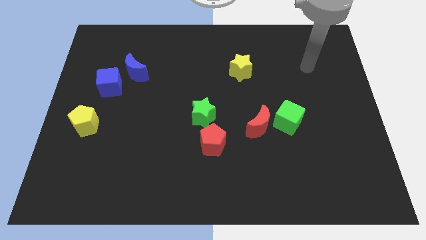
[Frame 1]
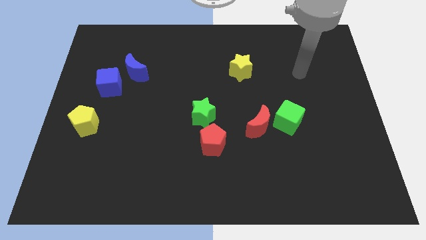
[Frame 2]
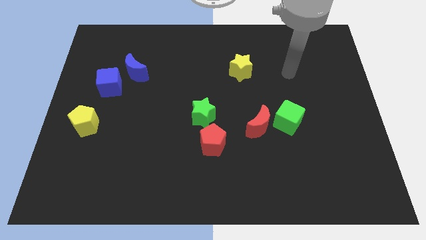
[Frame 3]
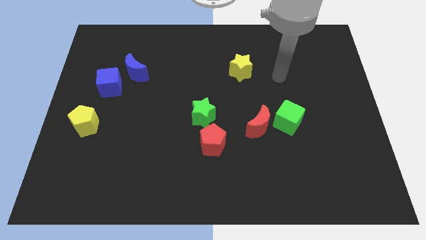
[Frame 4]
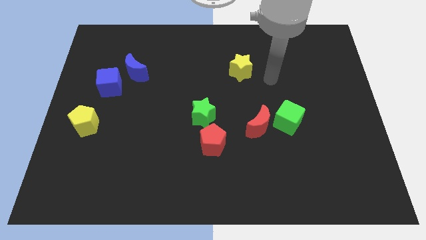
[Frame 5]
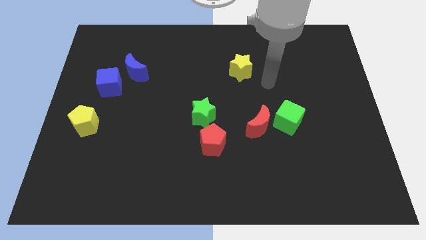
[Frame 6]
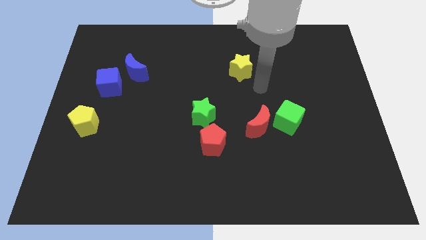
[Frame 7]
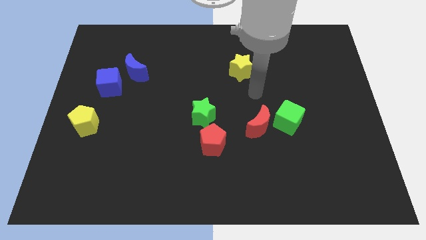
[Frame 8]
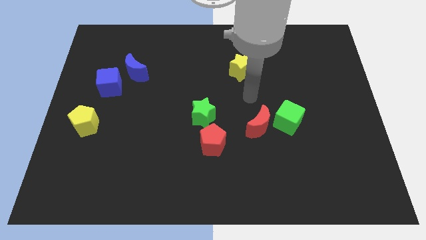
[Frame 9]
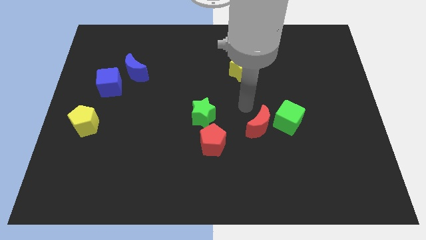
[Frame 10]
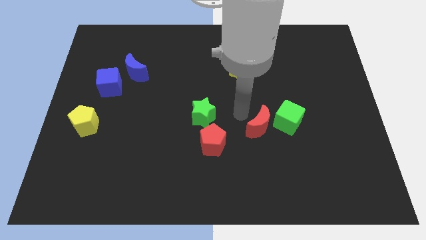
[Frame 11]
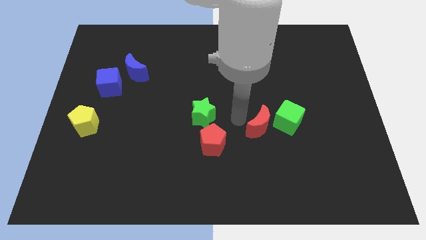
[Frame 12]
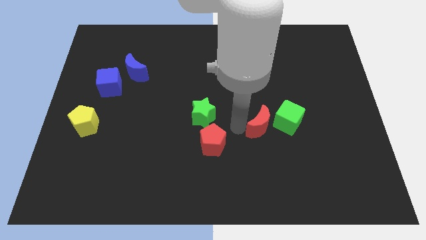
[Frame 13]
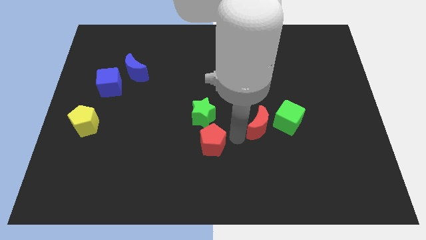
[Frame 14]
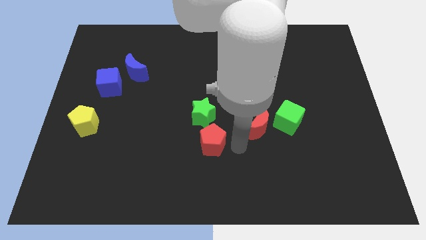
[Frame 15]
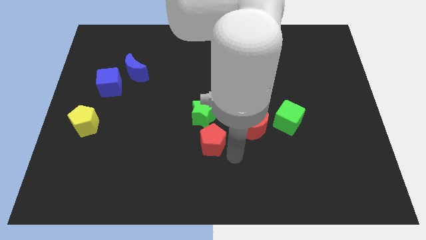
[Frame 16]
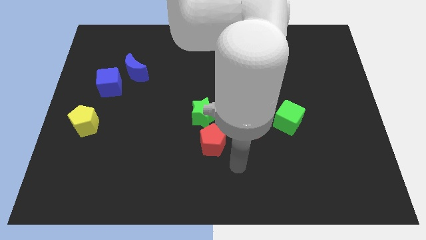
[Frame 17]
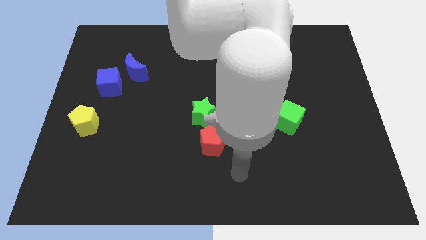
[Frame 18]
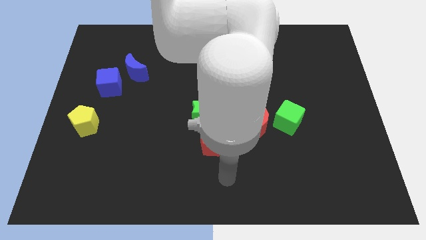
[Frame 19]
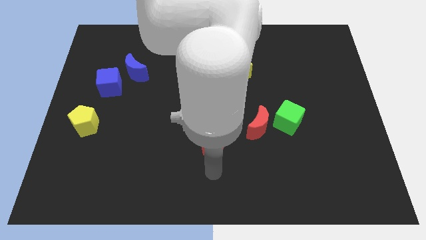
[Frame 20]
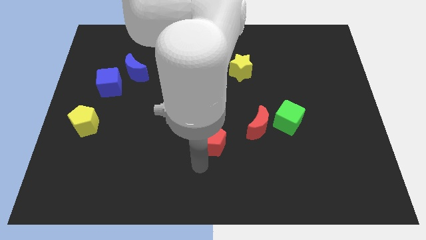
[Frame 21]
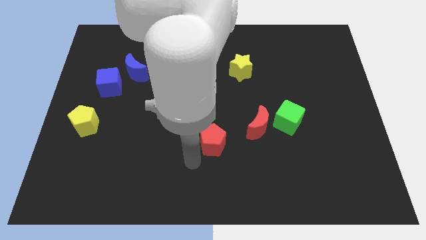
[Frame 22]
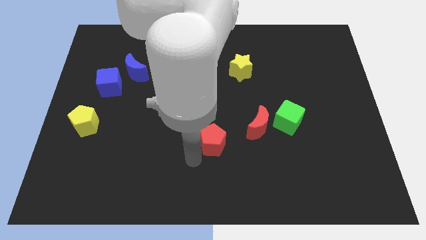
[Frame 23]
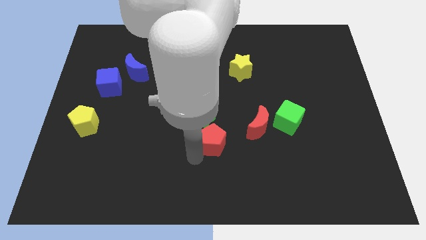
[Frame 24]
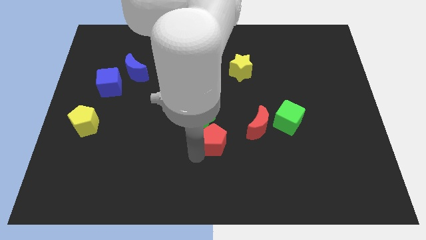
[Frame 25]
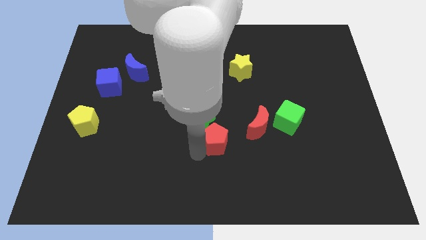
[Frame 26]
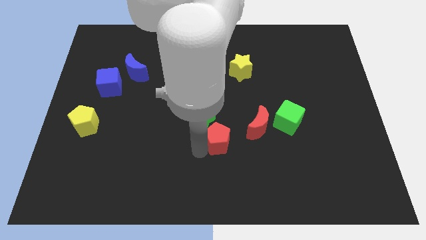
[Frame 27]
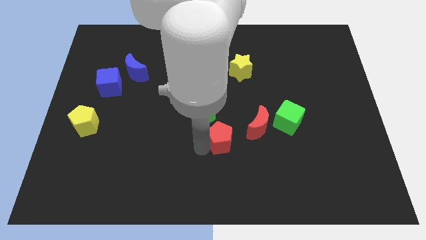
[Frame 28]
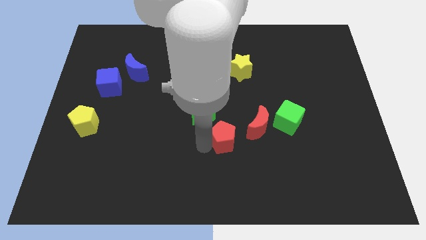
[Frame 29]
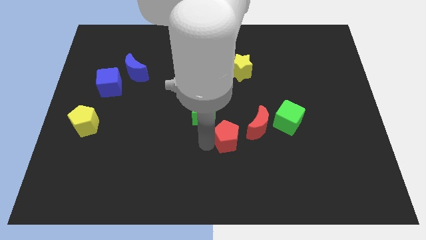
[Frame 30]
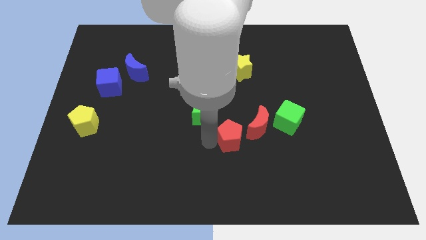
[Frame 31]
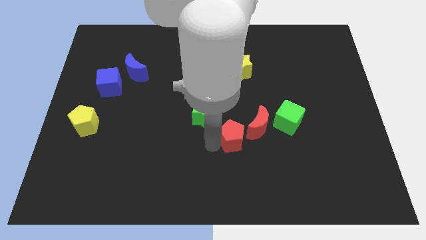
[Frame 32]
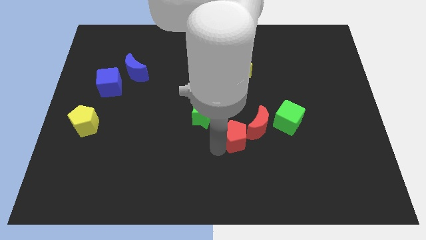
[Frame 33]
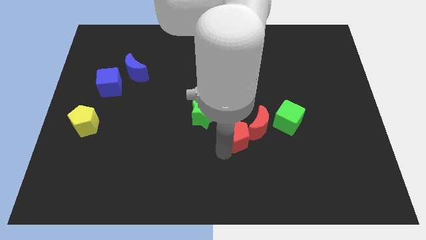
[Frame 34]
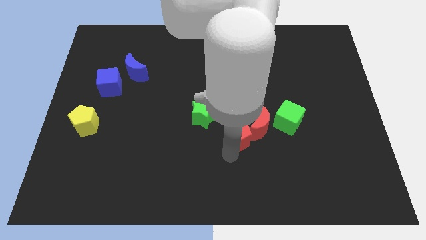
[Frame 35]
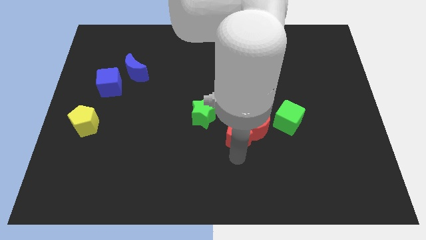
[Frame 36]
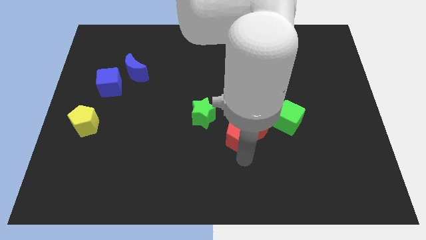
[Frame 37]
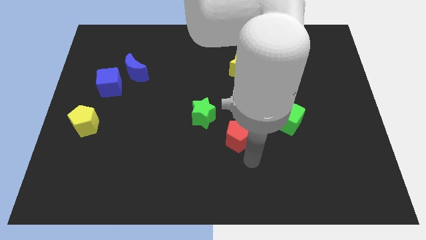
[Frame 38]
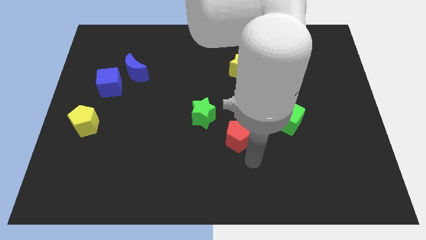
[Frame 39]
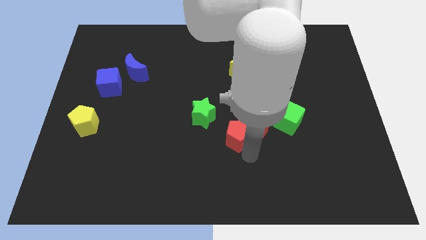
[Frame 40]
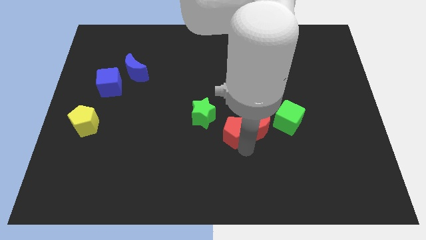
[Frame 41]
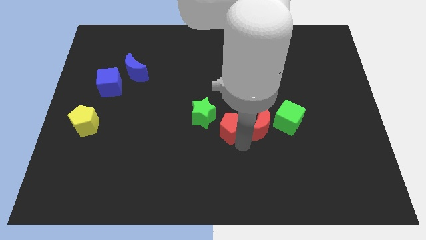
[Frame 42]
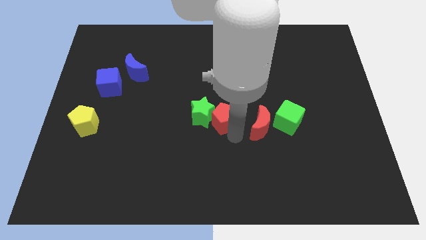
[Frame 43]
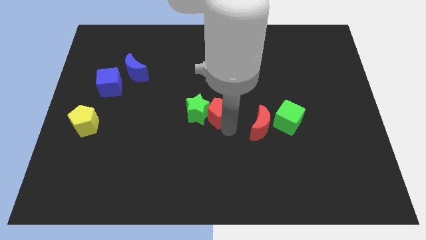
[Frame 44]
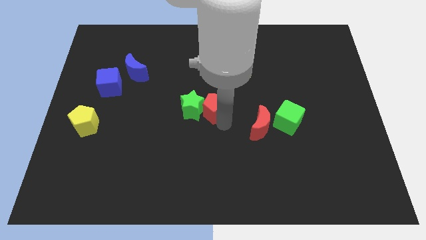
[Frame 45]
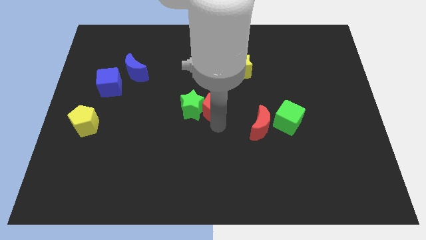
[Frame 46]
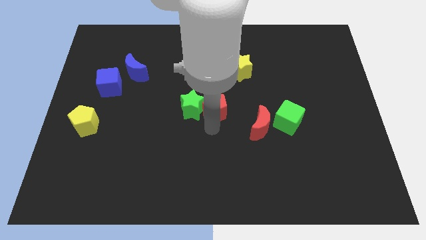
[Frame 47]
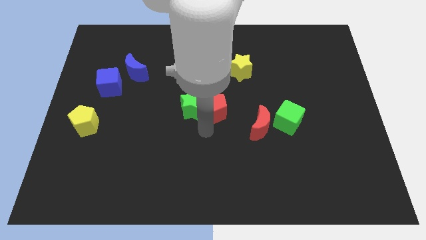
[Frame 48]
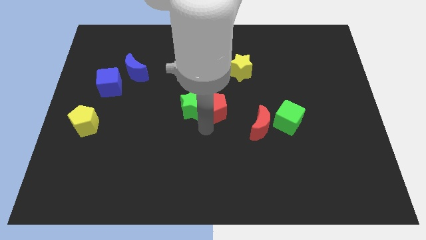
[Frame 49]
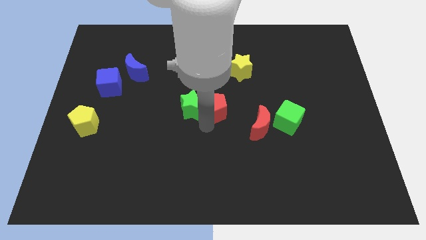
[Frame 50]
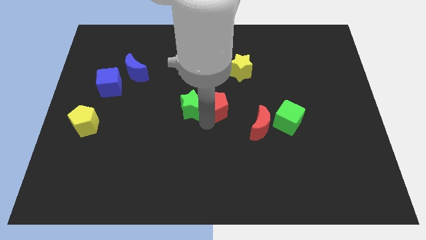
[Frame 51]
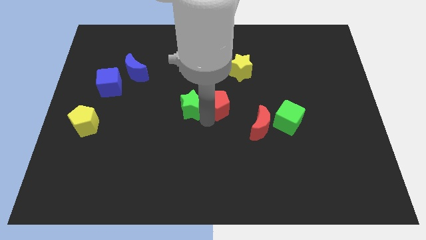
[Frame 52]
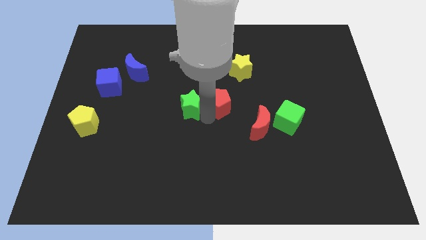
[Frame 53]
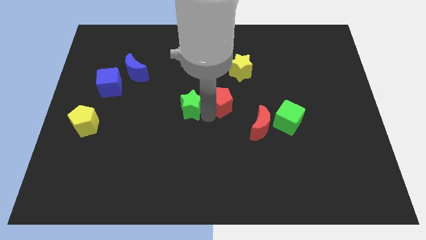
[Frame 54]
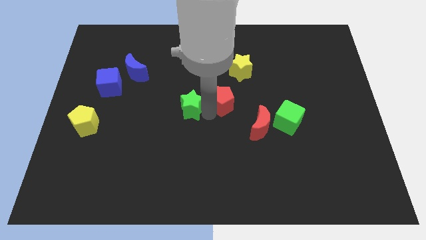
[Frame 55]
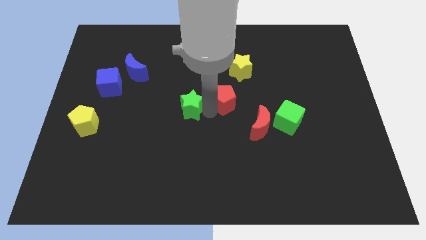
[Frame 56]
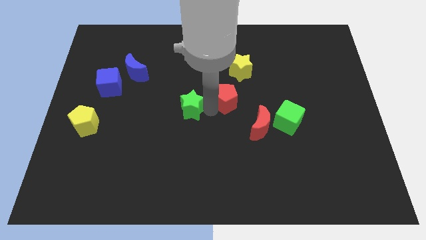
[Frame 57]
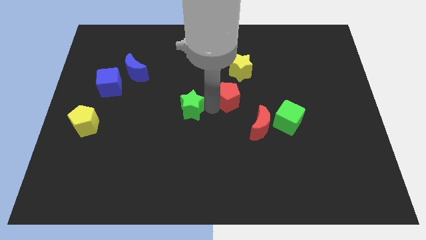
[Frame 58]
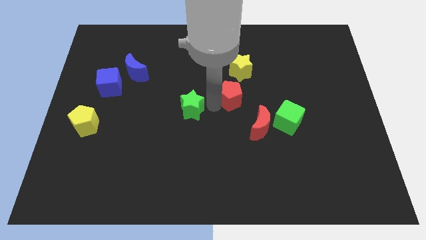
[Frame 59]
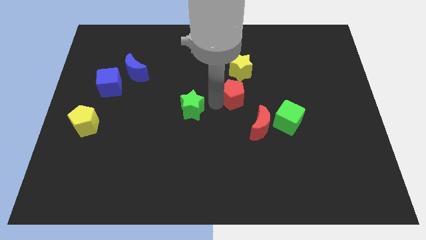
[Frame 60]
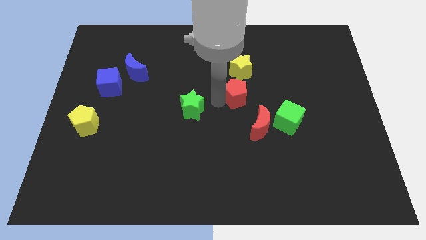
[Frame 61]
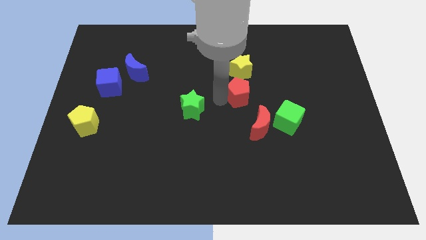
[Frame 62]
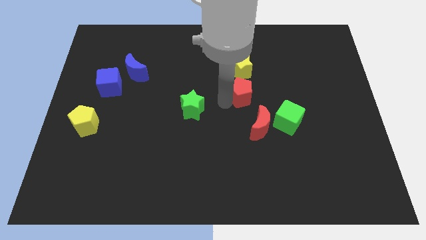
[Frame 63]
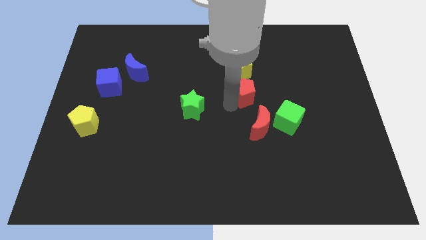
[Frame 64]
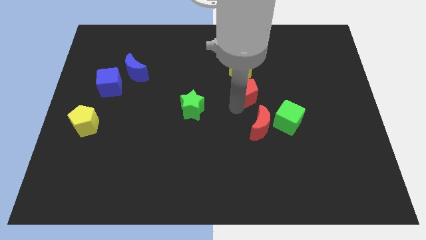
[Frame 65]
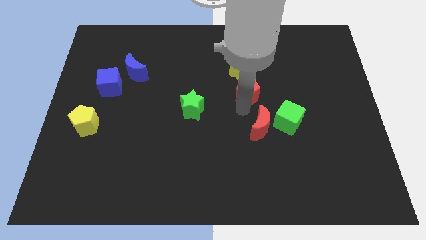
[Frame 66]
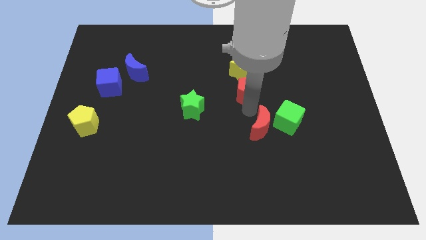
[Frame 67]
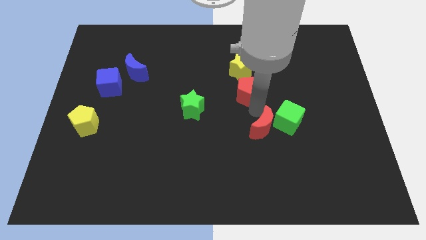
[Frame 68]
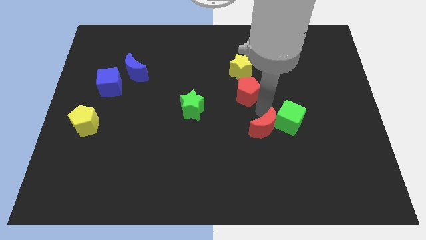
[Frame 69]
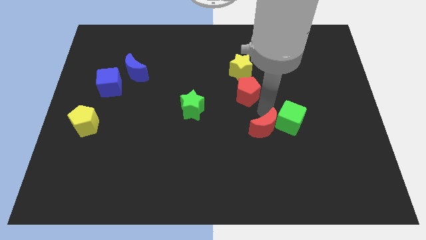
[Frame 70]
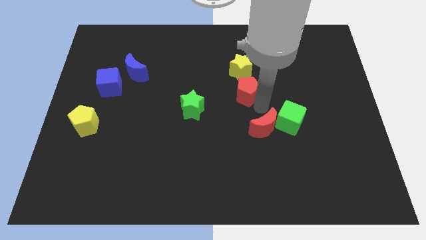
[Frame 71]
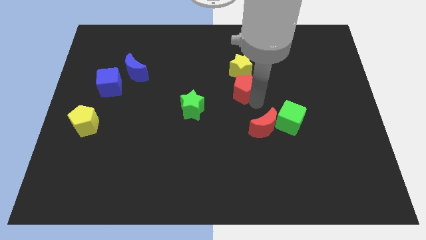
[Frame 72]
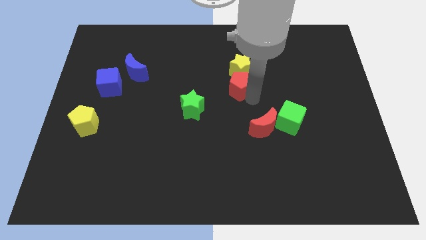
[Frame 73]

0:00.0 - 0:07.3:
put the red pentagon next to the yellow star

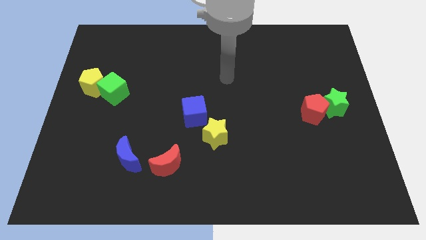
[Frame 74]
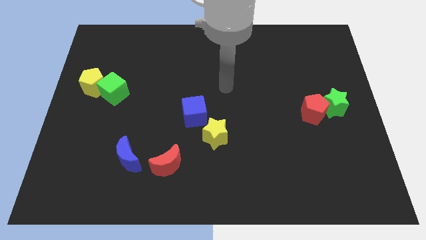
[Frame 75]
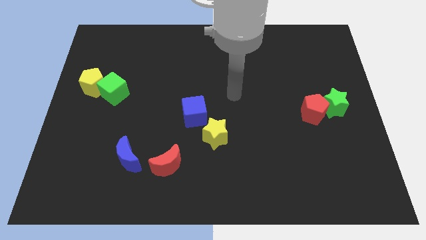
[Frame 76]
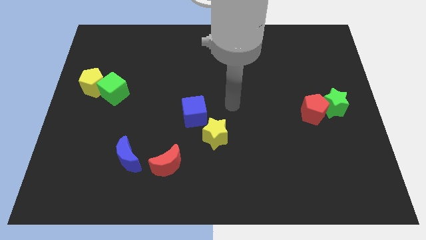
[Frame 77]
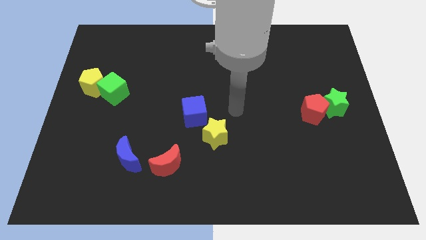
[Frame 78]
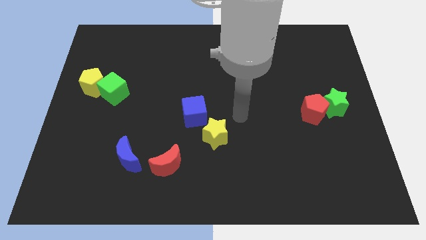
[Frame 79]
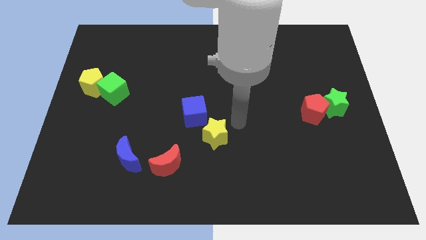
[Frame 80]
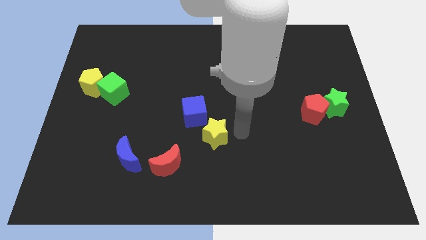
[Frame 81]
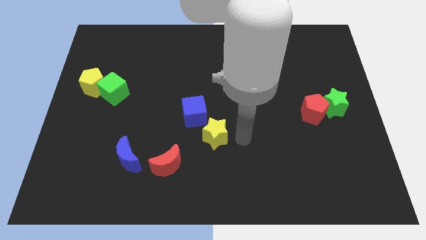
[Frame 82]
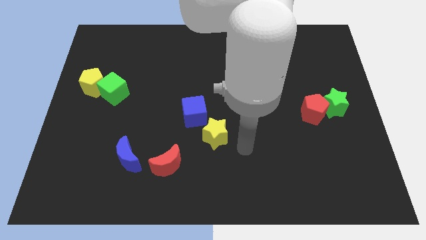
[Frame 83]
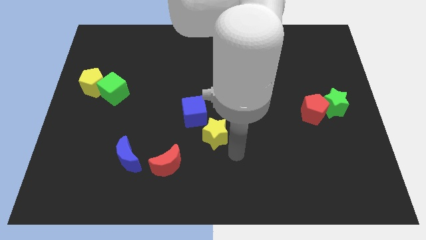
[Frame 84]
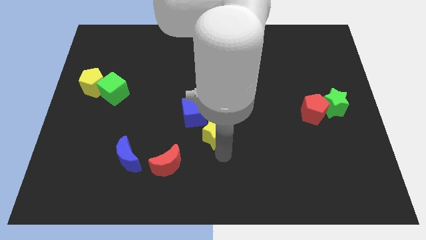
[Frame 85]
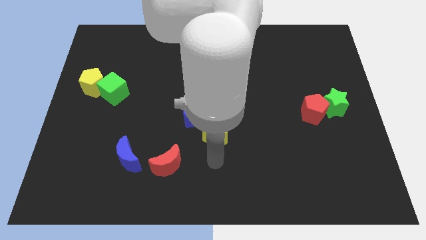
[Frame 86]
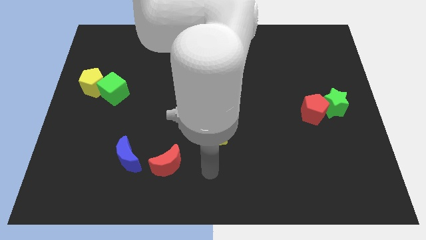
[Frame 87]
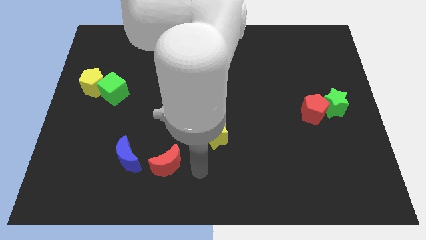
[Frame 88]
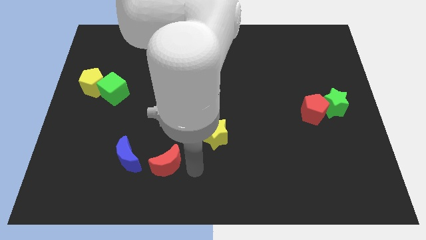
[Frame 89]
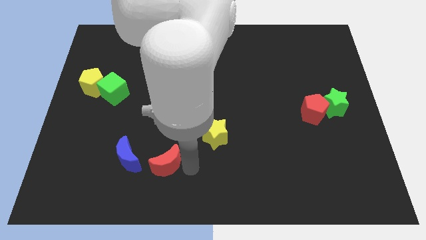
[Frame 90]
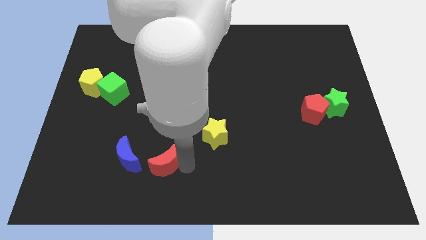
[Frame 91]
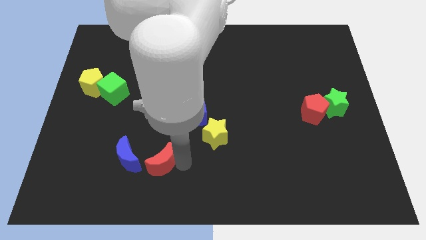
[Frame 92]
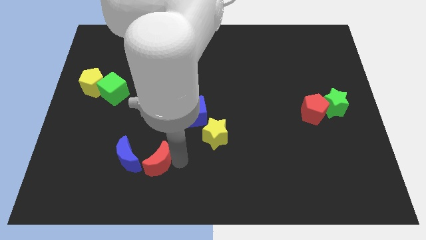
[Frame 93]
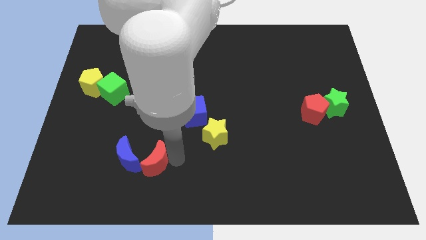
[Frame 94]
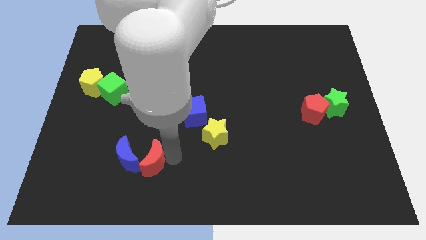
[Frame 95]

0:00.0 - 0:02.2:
slide the red moon next to the blue moon
